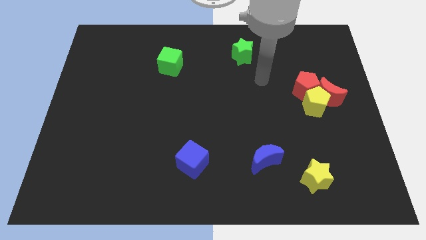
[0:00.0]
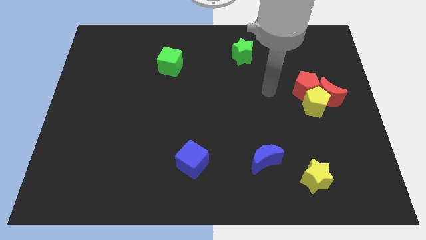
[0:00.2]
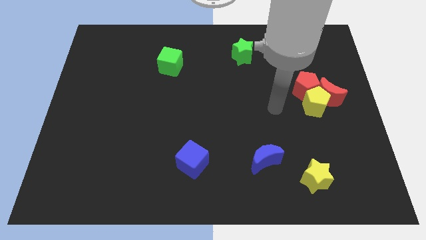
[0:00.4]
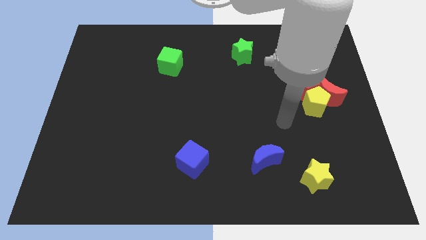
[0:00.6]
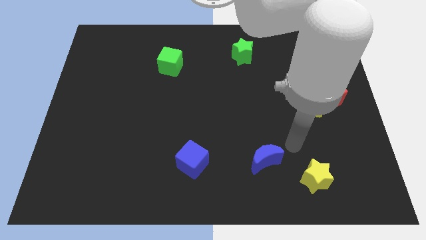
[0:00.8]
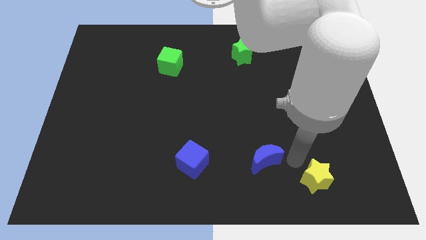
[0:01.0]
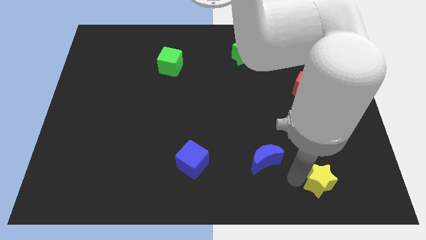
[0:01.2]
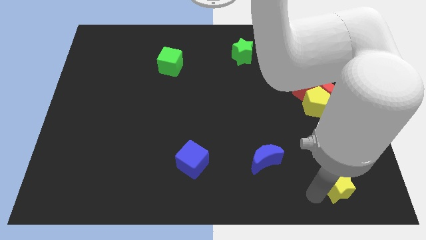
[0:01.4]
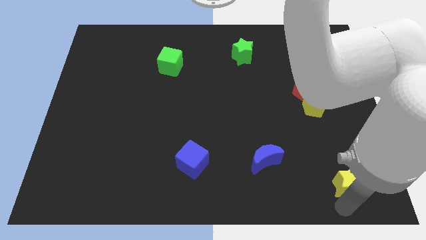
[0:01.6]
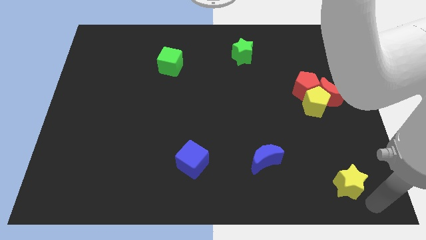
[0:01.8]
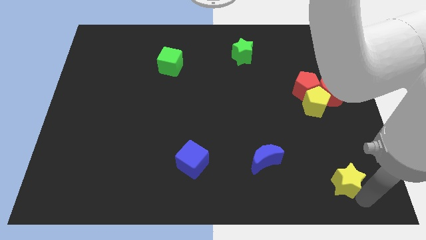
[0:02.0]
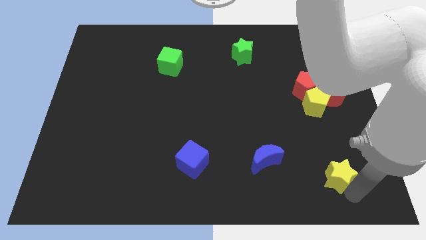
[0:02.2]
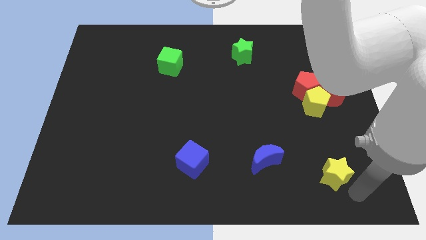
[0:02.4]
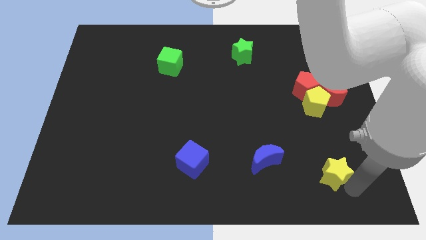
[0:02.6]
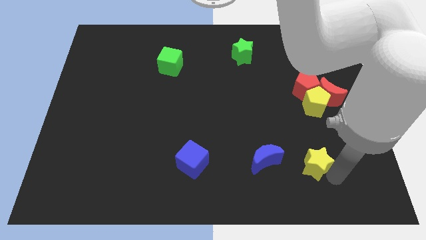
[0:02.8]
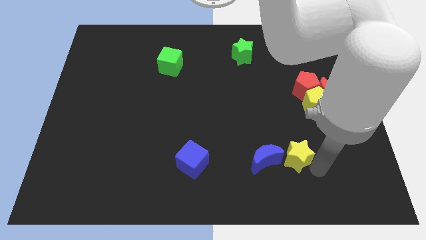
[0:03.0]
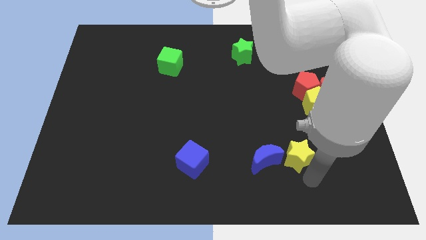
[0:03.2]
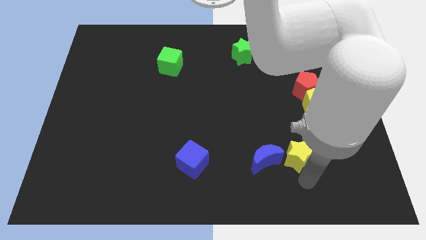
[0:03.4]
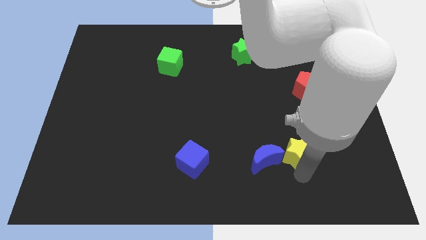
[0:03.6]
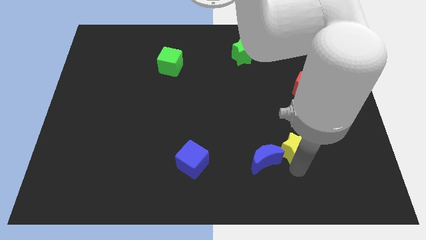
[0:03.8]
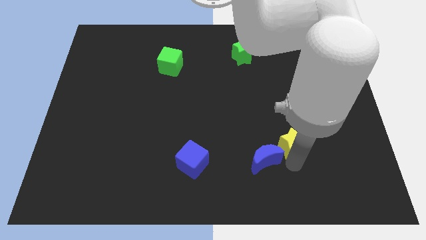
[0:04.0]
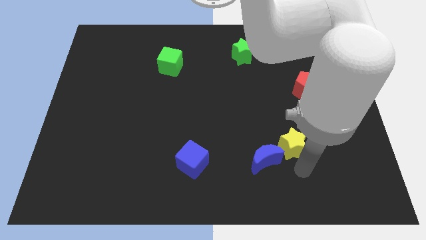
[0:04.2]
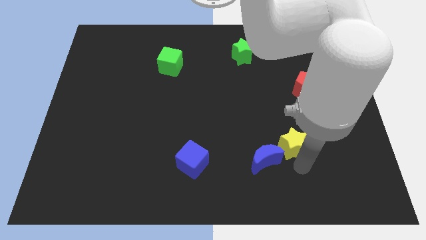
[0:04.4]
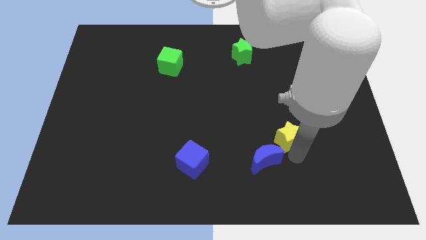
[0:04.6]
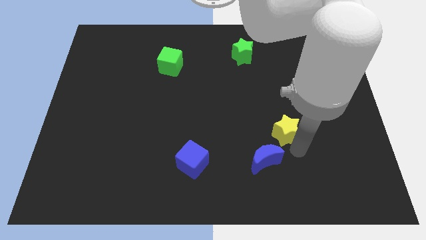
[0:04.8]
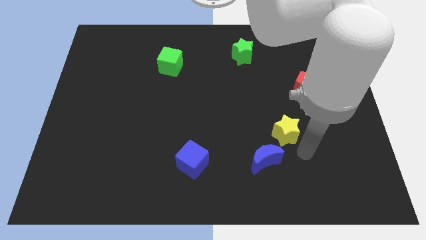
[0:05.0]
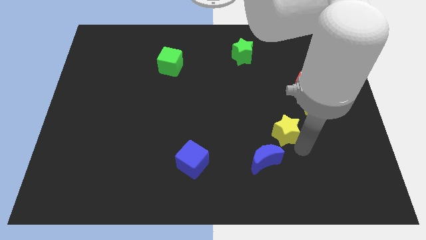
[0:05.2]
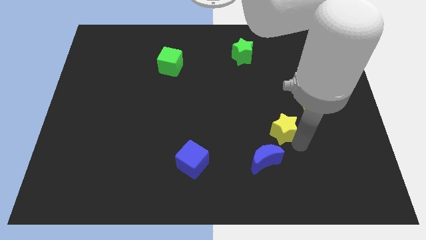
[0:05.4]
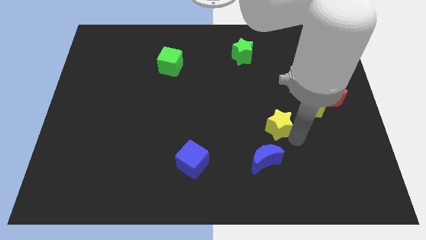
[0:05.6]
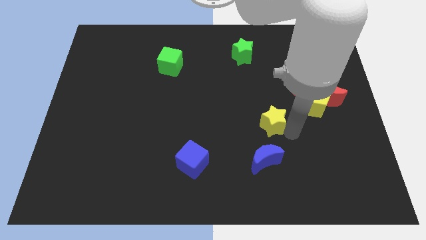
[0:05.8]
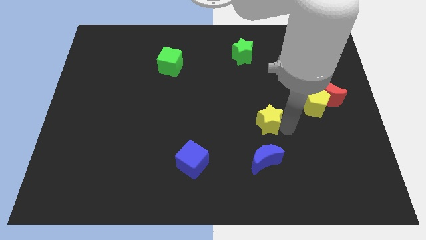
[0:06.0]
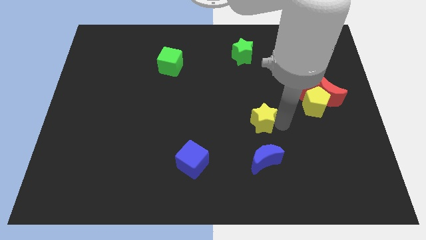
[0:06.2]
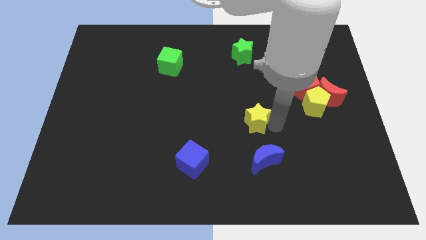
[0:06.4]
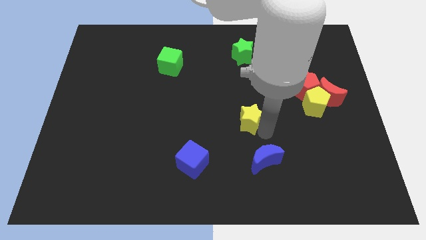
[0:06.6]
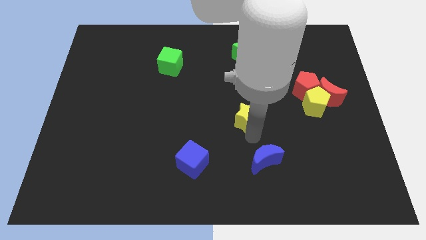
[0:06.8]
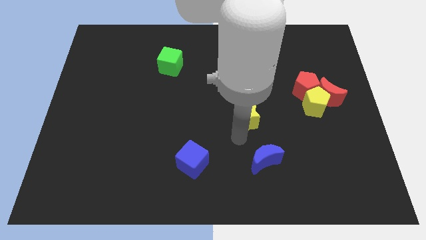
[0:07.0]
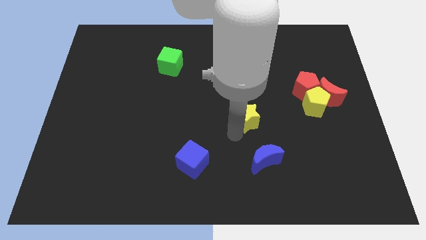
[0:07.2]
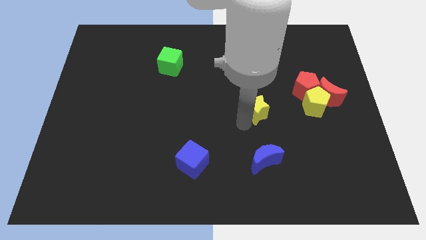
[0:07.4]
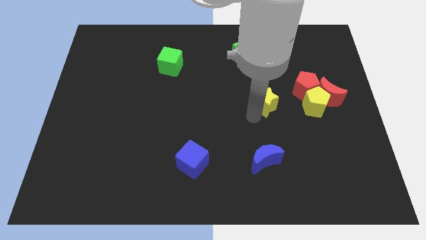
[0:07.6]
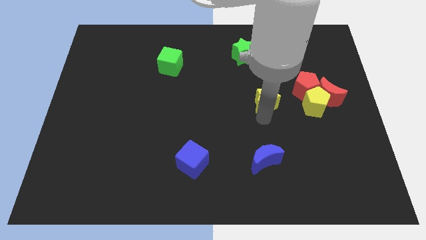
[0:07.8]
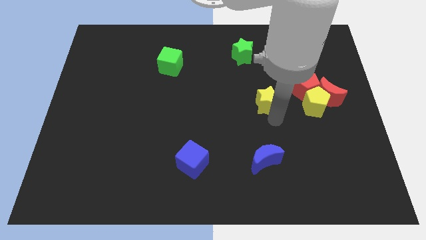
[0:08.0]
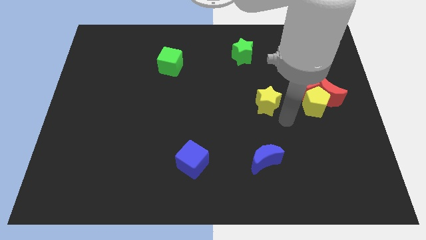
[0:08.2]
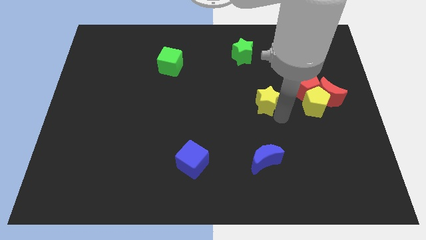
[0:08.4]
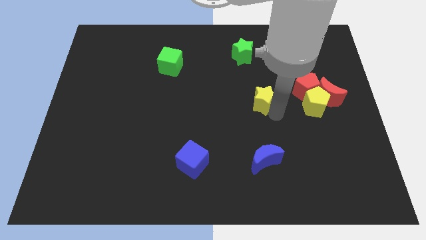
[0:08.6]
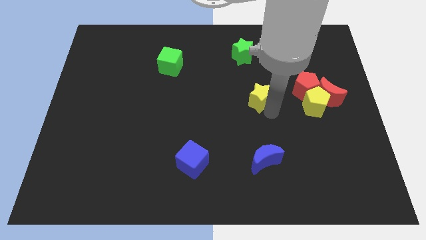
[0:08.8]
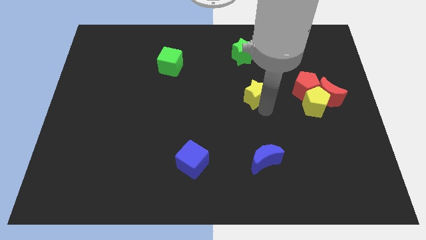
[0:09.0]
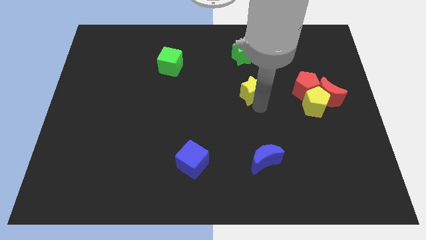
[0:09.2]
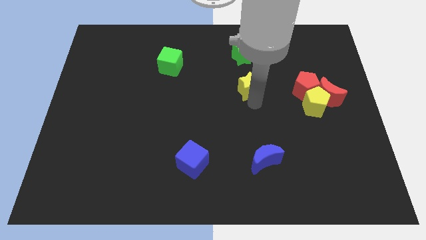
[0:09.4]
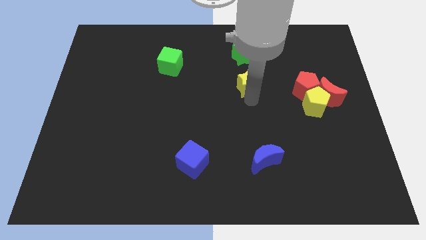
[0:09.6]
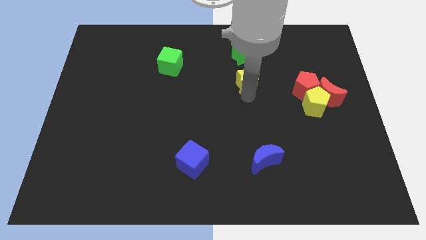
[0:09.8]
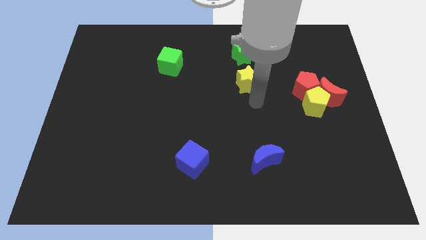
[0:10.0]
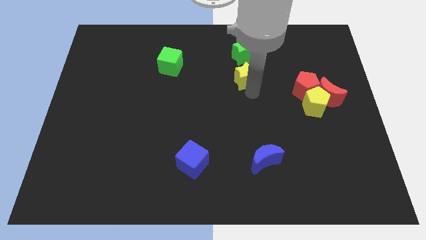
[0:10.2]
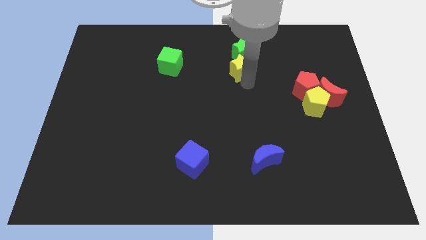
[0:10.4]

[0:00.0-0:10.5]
slide the yellow star close to the green star

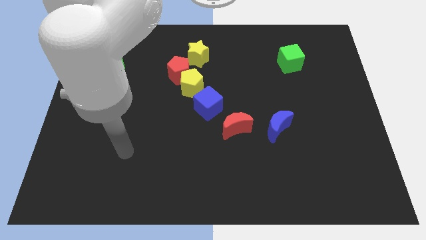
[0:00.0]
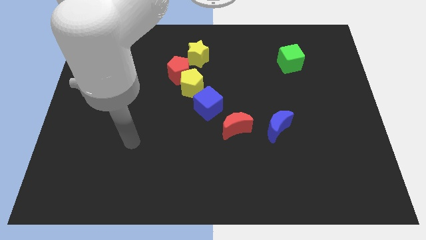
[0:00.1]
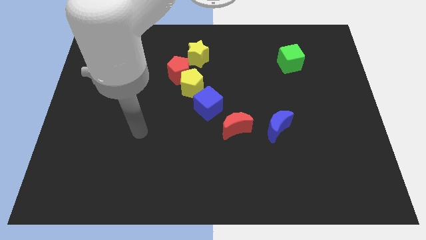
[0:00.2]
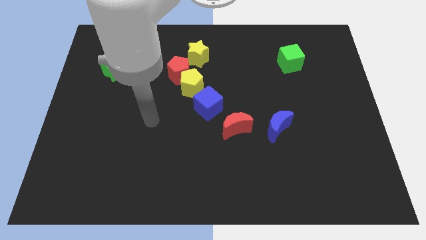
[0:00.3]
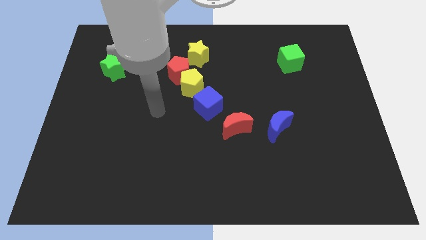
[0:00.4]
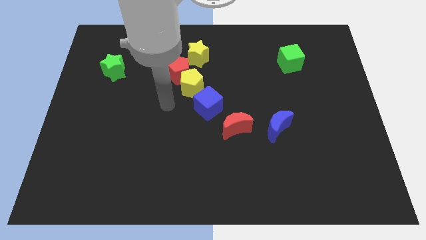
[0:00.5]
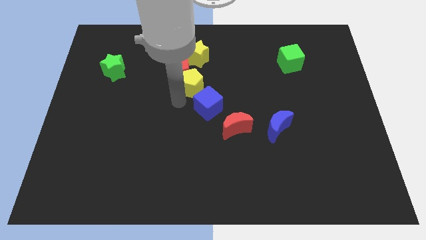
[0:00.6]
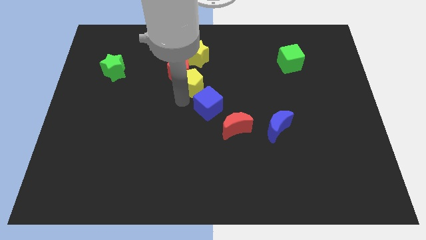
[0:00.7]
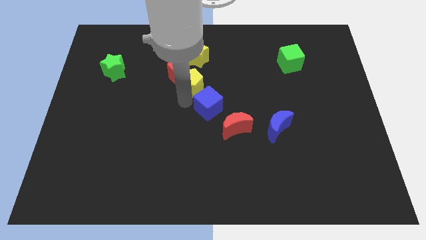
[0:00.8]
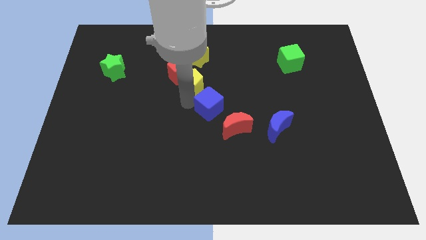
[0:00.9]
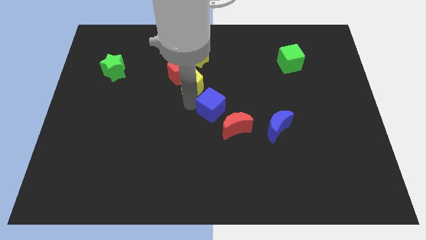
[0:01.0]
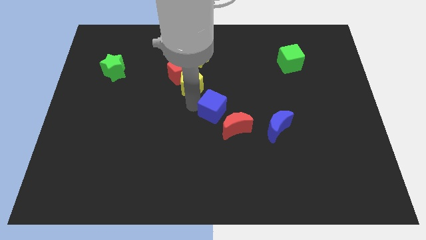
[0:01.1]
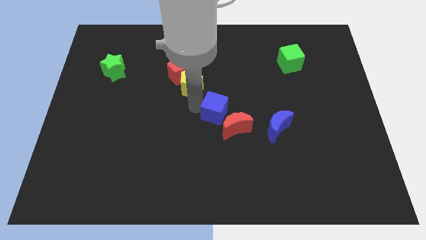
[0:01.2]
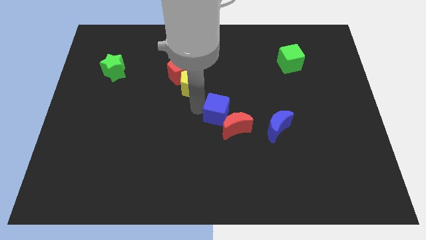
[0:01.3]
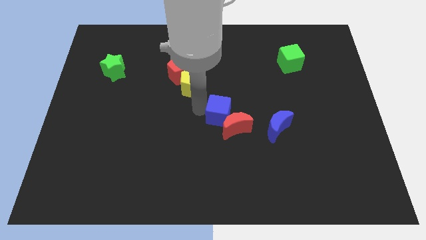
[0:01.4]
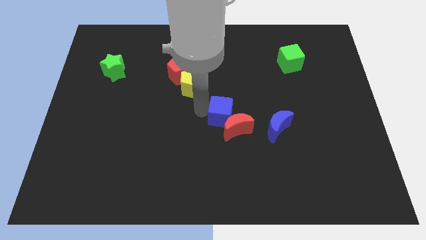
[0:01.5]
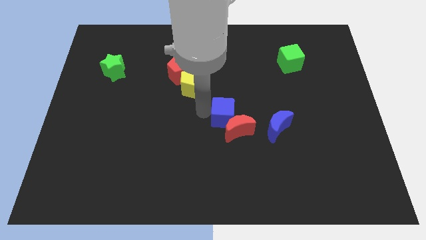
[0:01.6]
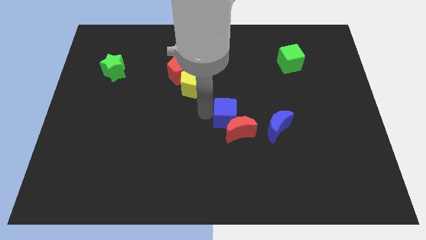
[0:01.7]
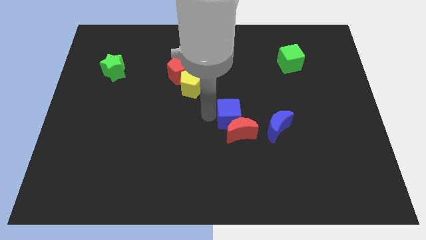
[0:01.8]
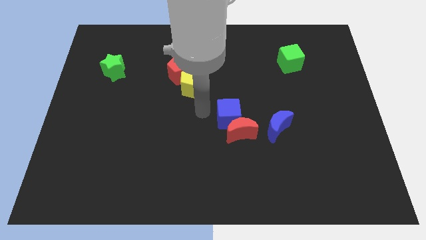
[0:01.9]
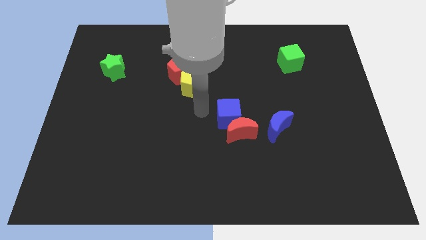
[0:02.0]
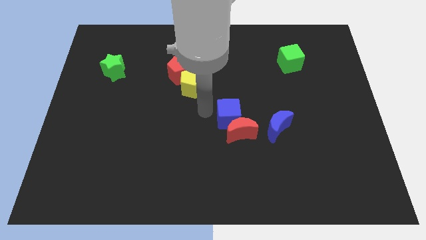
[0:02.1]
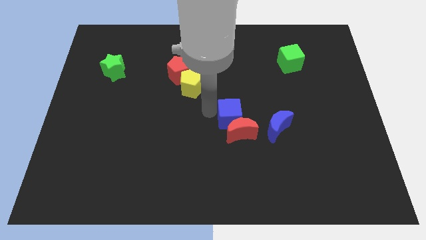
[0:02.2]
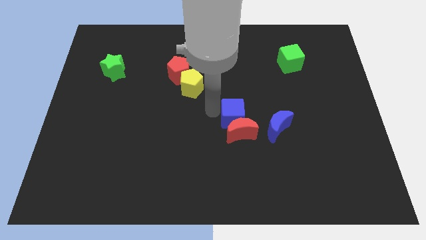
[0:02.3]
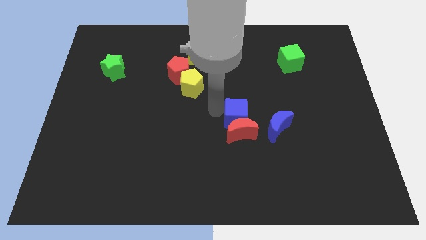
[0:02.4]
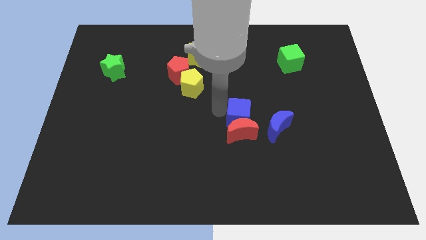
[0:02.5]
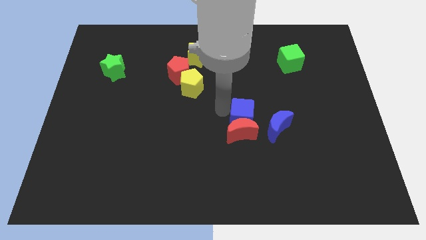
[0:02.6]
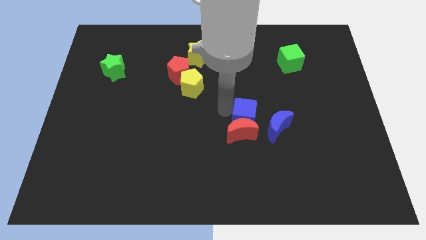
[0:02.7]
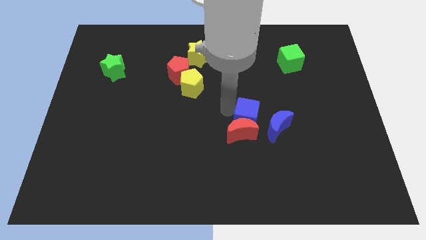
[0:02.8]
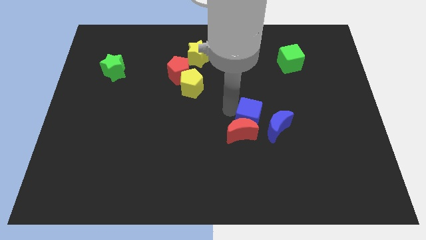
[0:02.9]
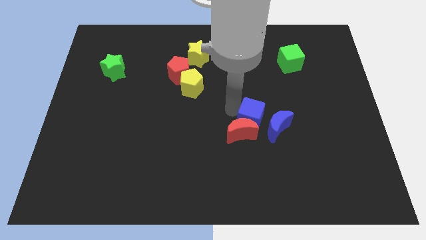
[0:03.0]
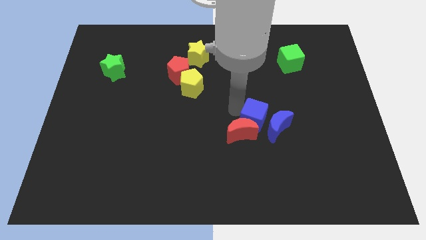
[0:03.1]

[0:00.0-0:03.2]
put the blue cube to the blue moon
